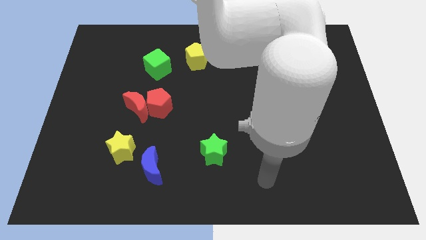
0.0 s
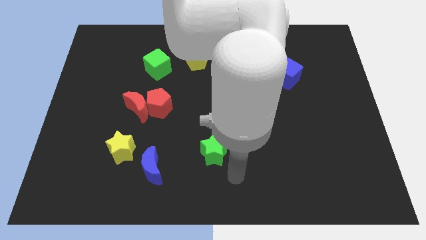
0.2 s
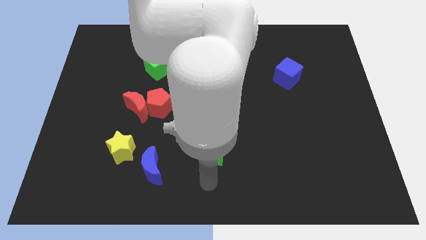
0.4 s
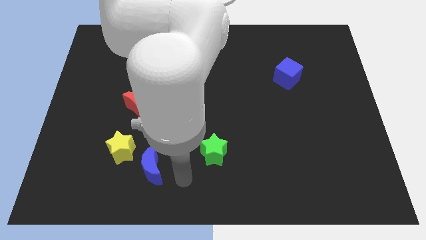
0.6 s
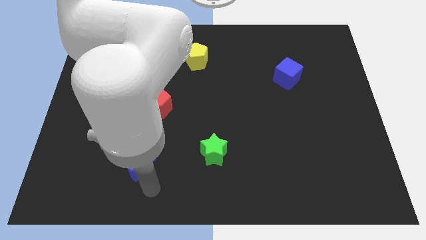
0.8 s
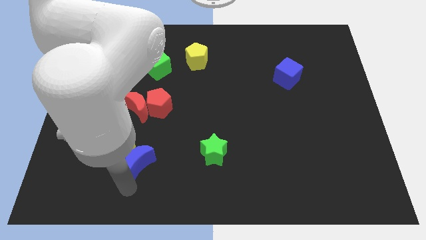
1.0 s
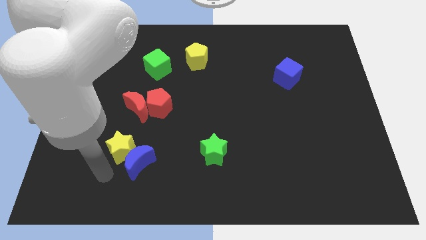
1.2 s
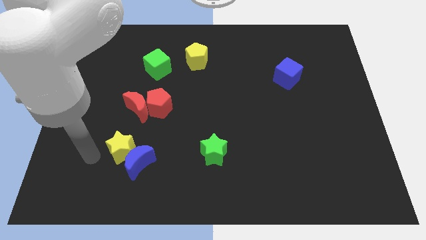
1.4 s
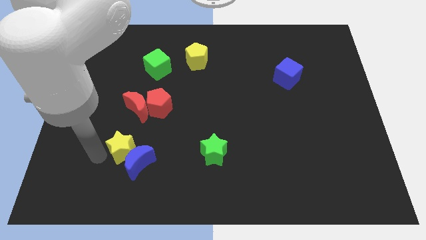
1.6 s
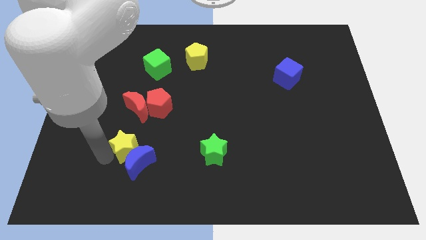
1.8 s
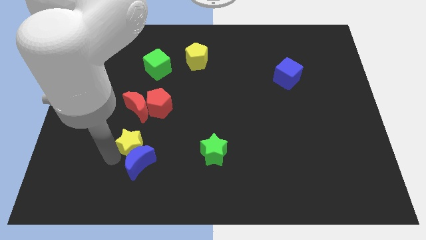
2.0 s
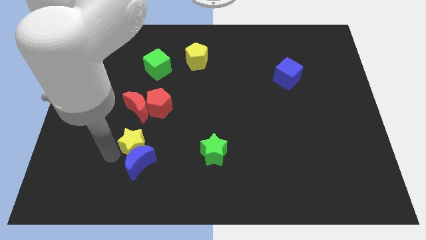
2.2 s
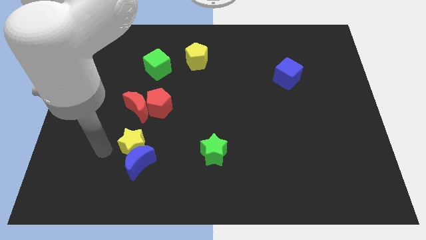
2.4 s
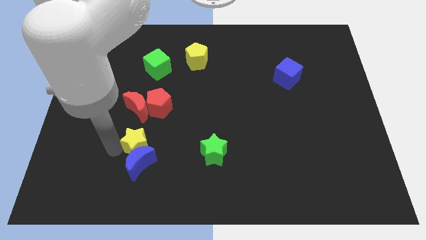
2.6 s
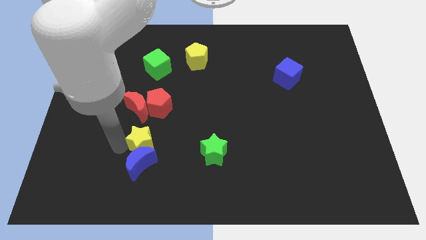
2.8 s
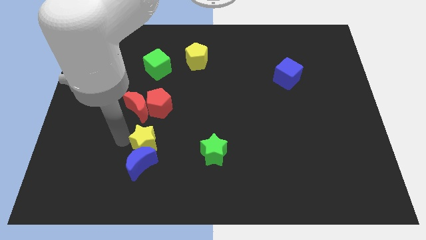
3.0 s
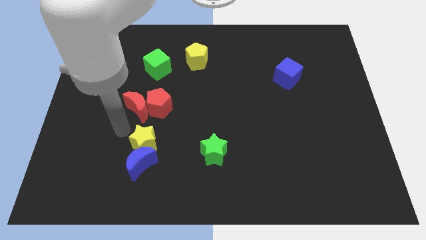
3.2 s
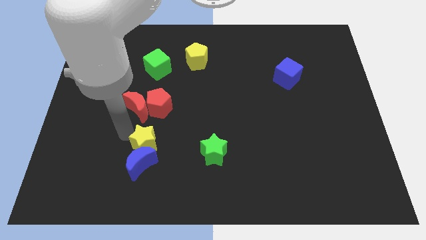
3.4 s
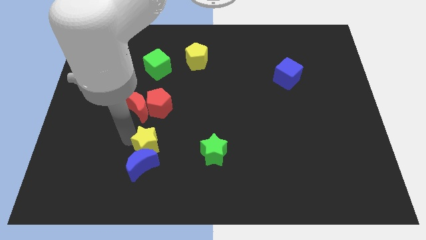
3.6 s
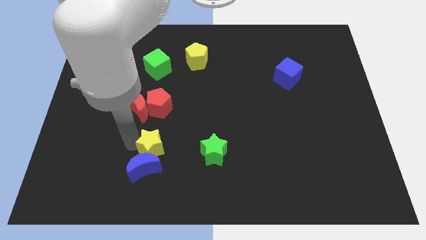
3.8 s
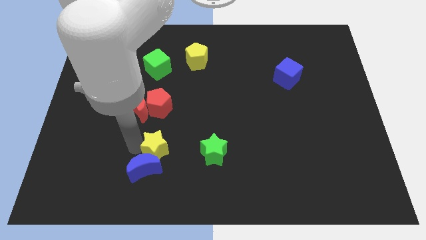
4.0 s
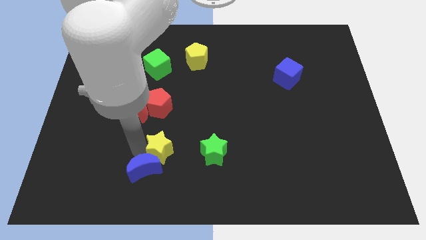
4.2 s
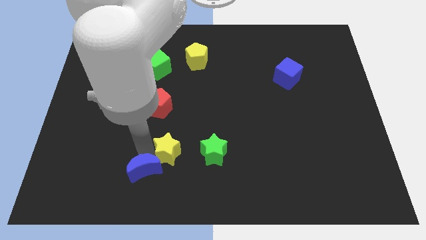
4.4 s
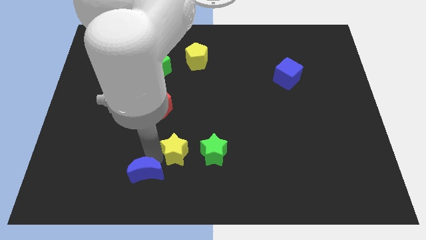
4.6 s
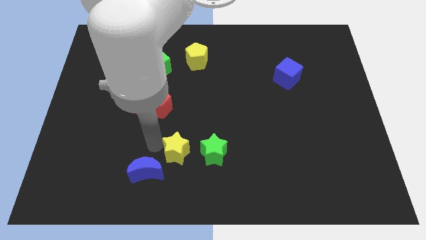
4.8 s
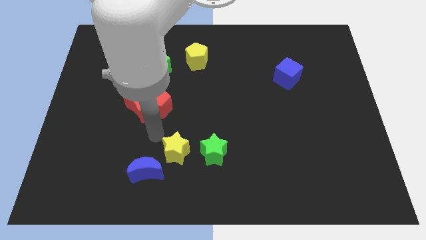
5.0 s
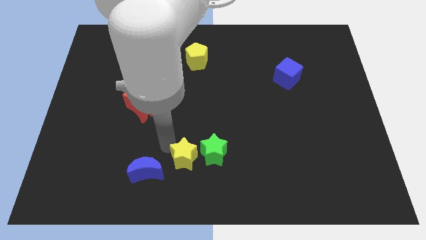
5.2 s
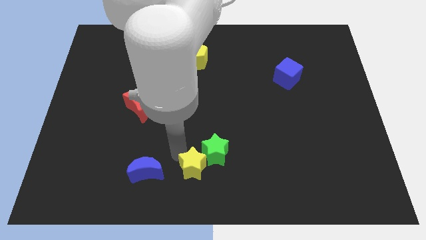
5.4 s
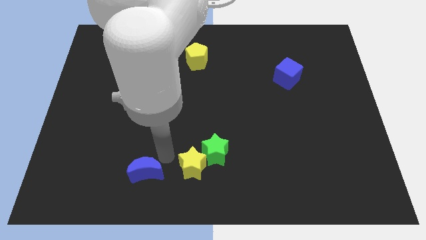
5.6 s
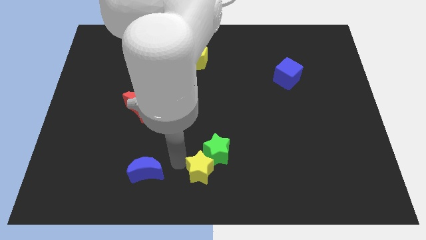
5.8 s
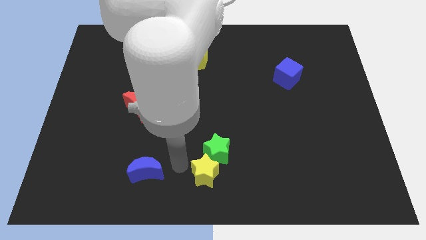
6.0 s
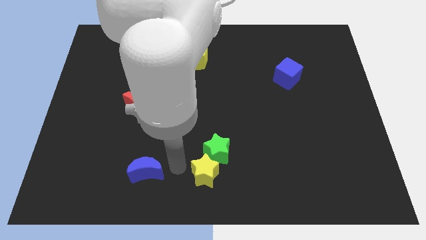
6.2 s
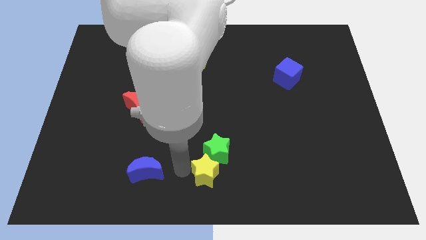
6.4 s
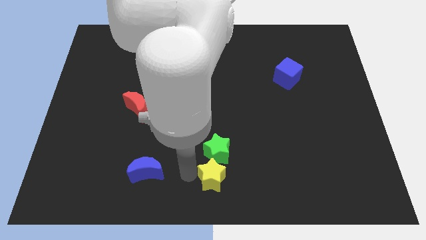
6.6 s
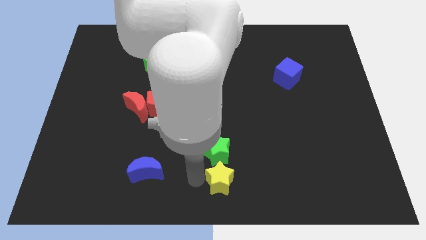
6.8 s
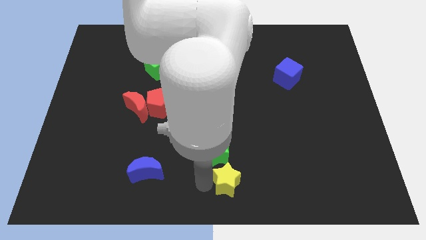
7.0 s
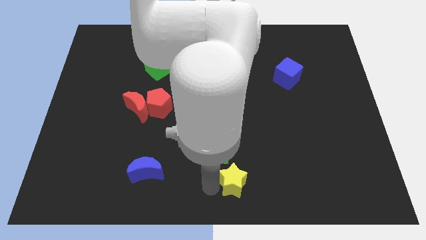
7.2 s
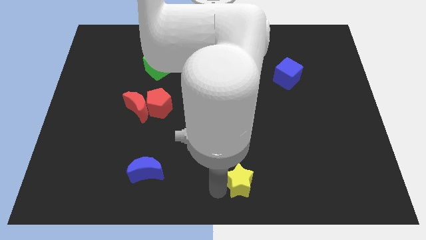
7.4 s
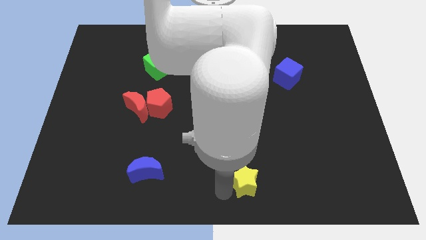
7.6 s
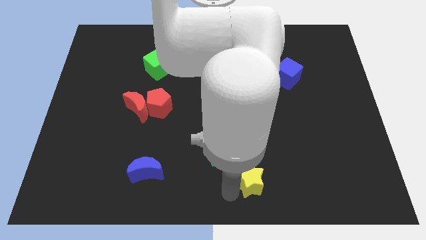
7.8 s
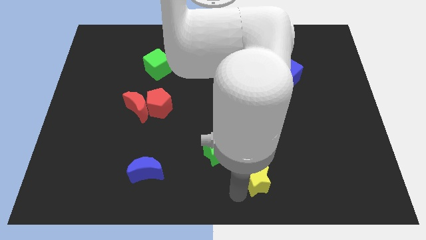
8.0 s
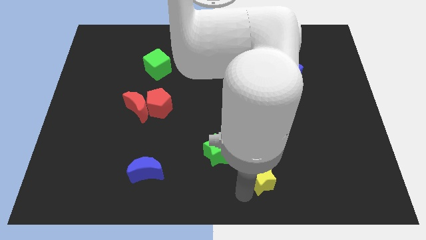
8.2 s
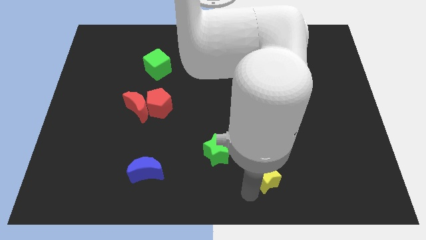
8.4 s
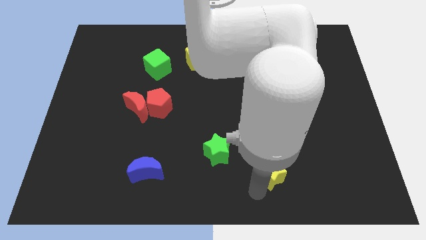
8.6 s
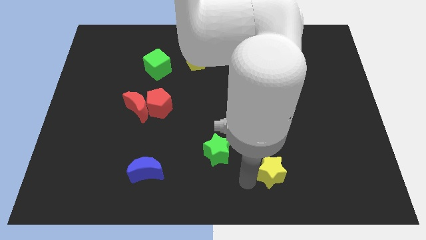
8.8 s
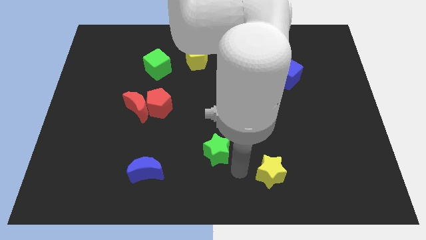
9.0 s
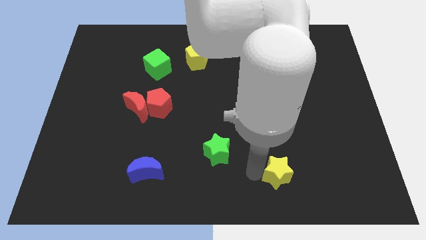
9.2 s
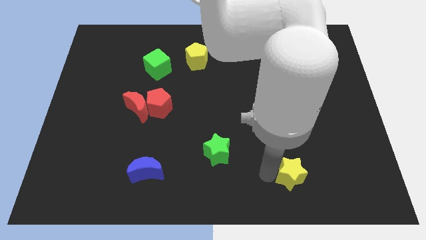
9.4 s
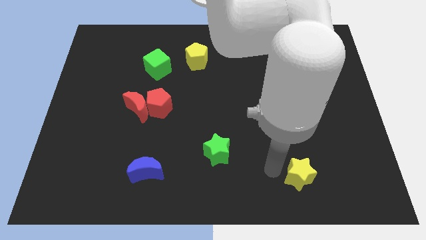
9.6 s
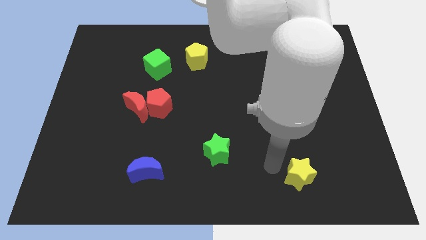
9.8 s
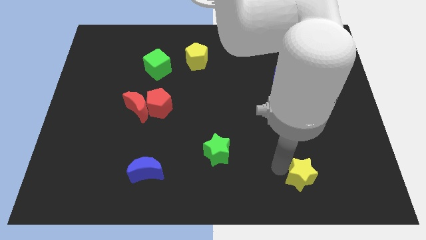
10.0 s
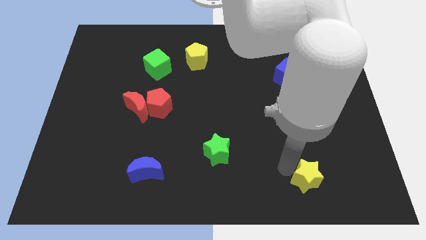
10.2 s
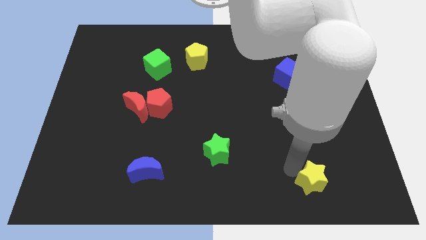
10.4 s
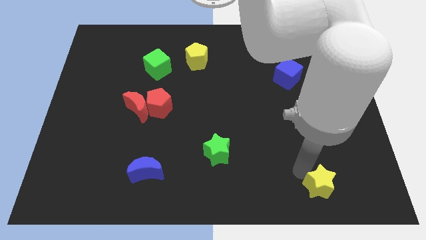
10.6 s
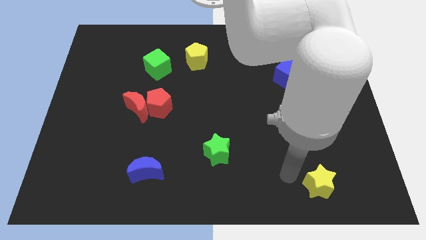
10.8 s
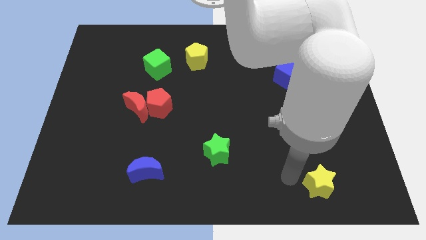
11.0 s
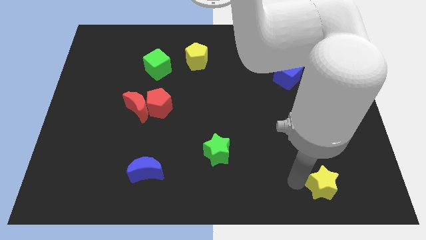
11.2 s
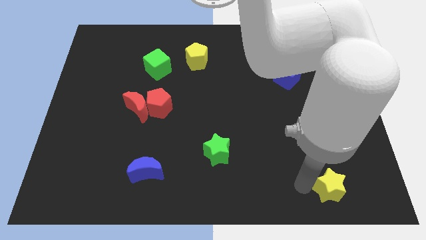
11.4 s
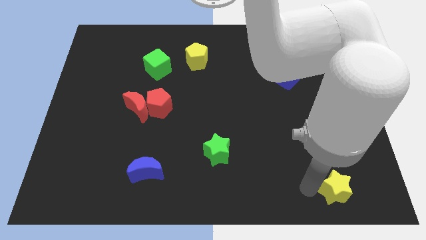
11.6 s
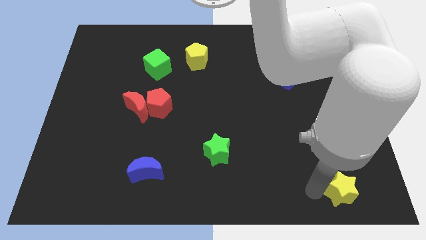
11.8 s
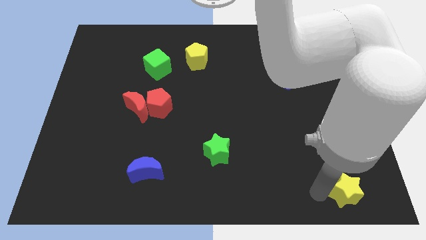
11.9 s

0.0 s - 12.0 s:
slide the yellow star to the bottom right of the board
